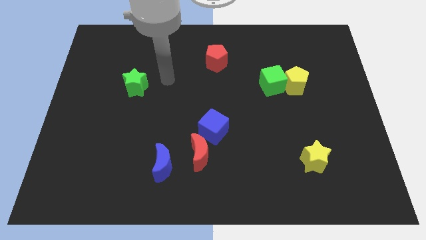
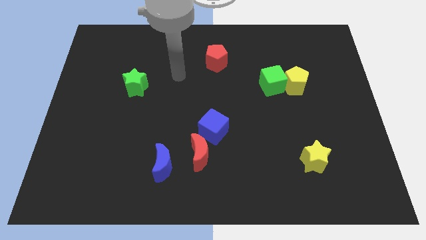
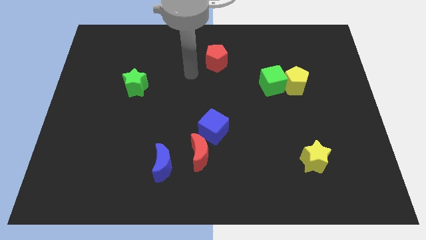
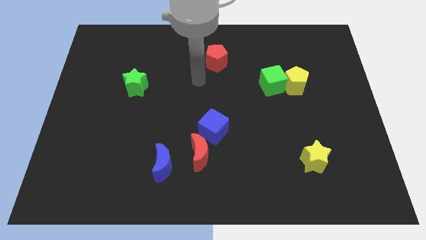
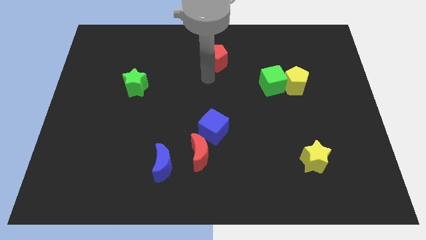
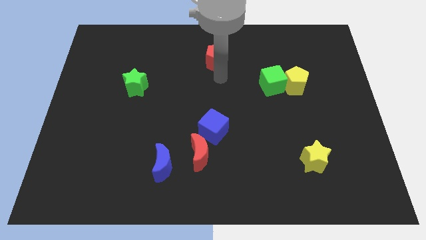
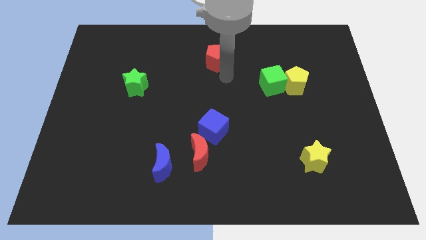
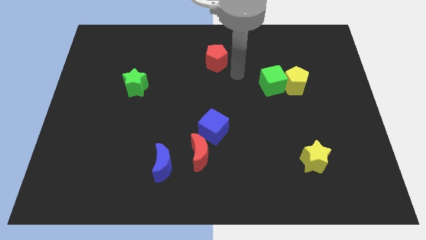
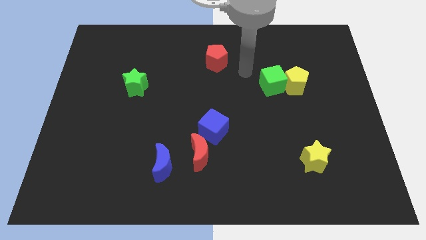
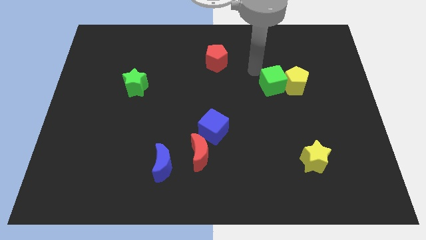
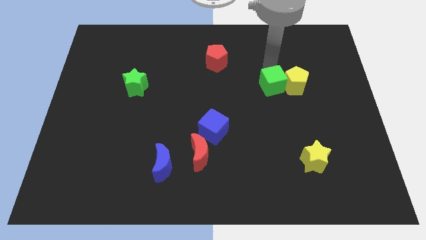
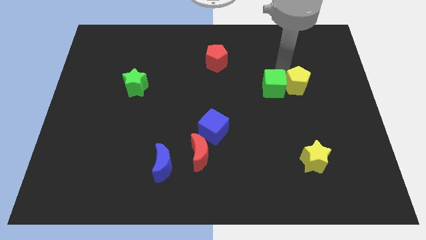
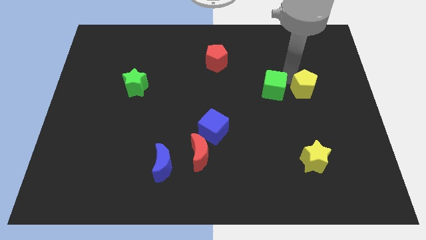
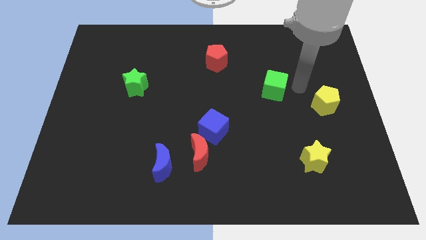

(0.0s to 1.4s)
pull the green cube apart from the yellow pentagon

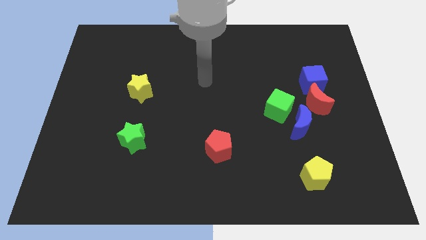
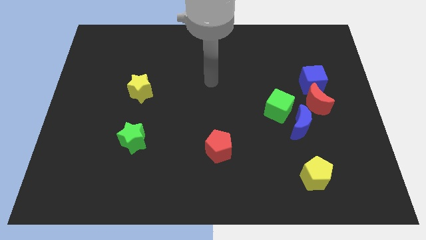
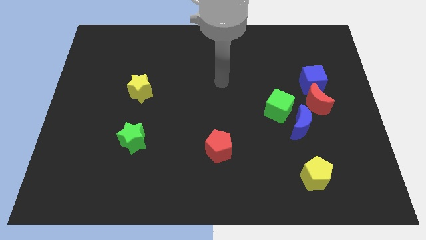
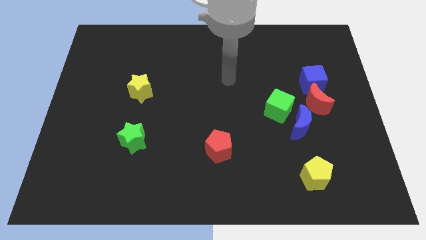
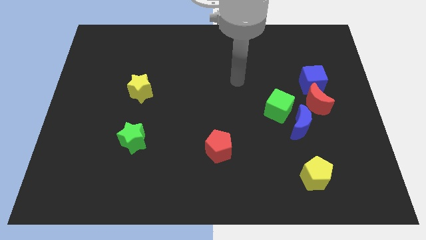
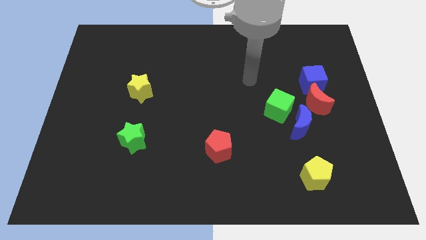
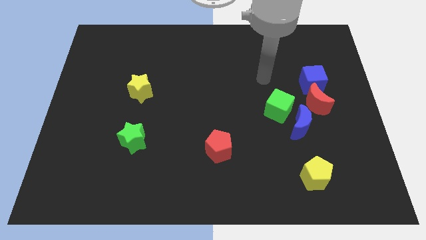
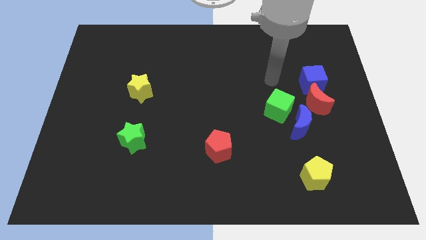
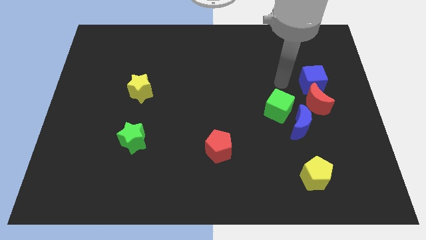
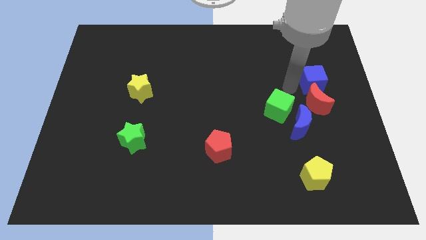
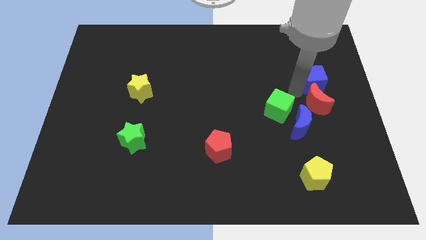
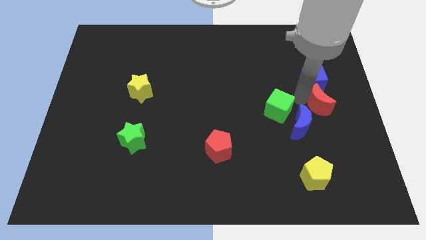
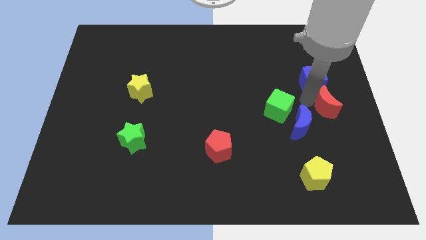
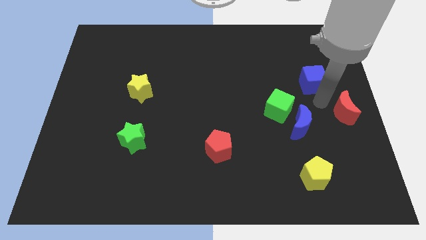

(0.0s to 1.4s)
pull the blue cube apart from the red moon

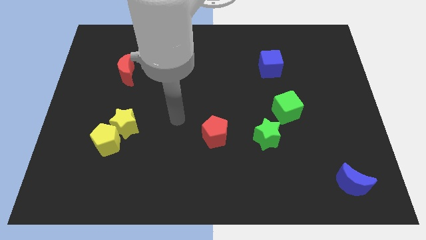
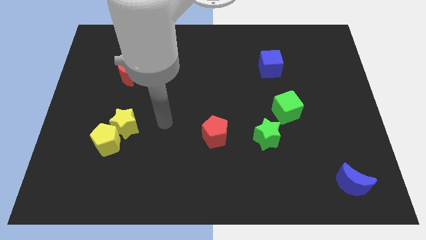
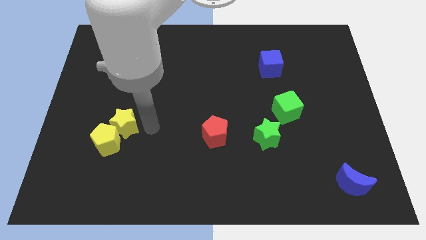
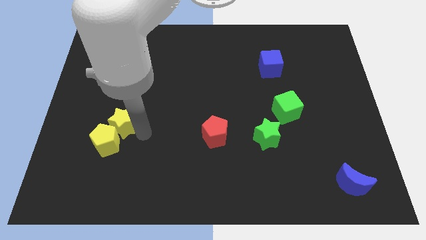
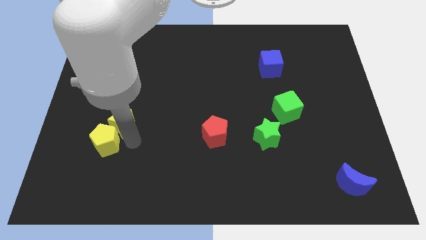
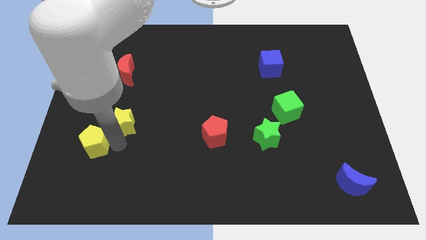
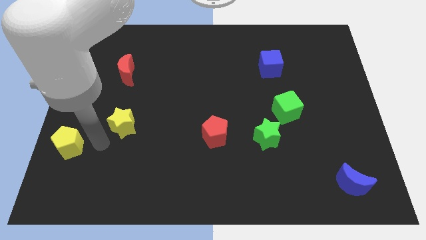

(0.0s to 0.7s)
move the yellow star away from the yellow pentagon

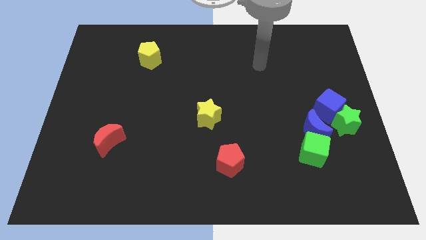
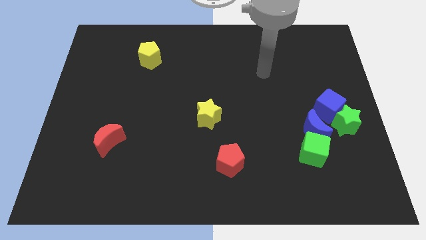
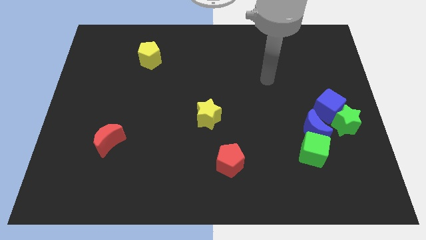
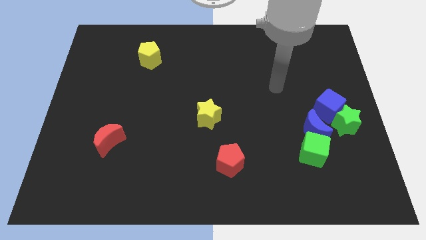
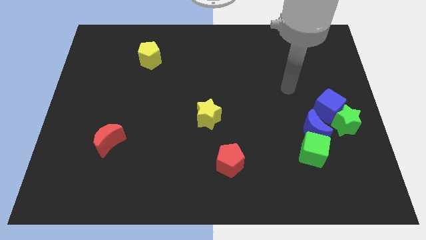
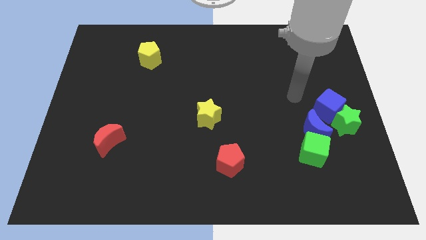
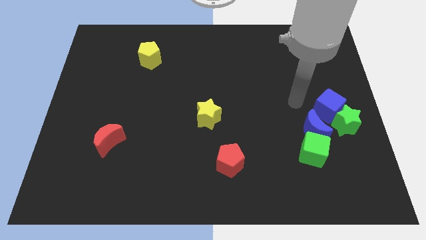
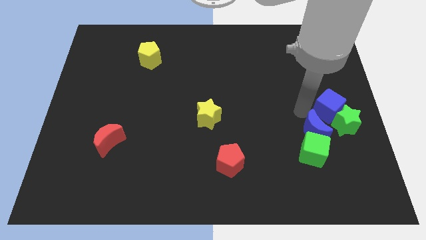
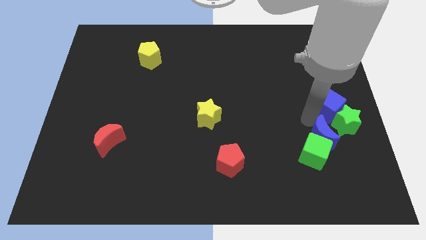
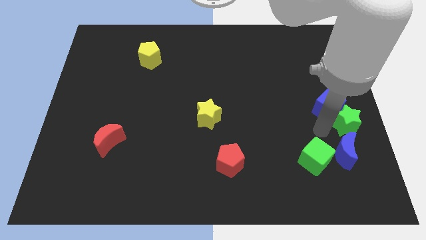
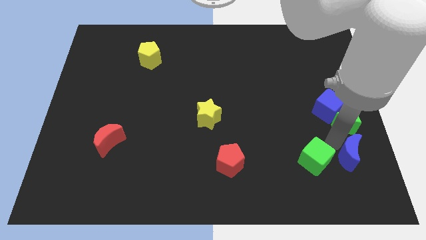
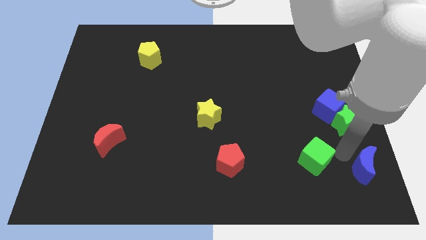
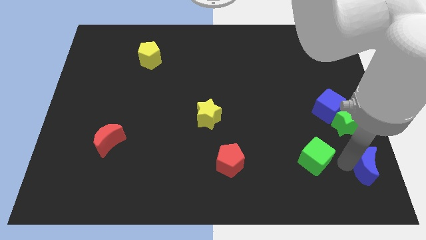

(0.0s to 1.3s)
separate the green cube from the blue moon

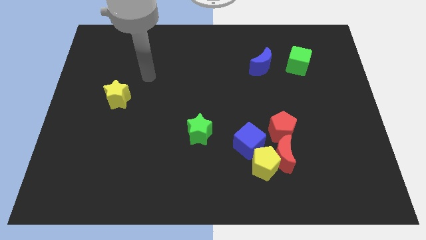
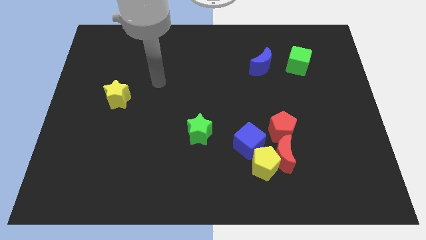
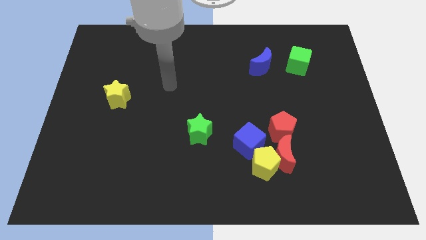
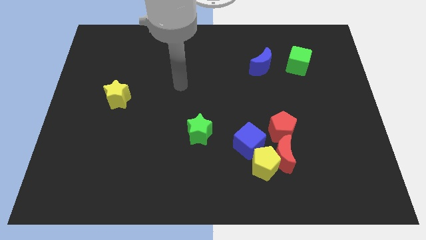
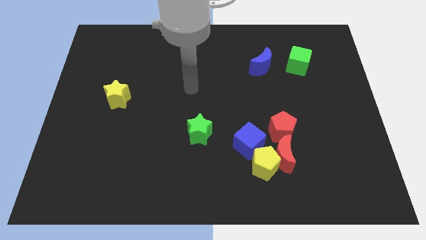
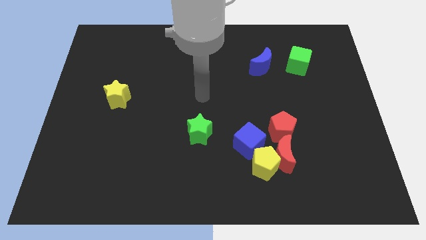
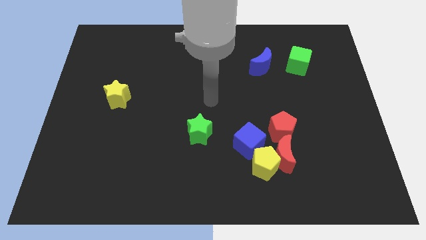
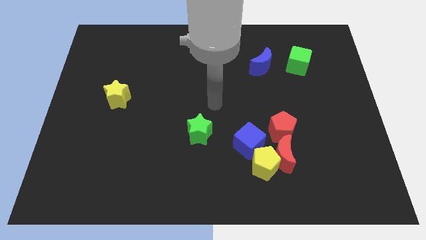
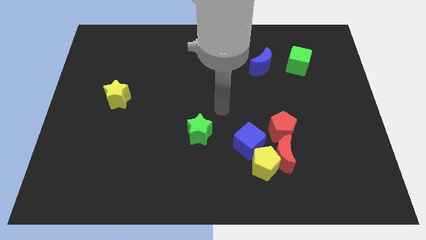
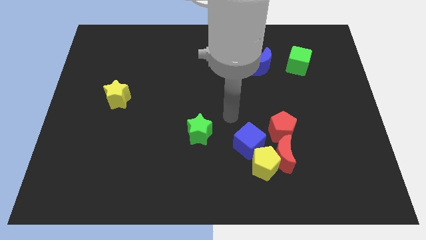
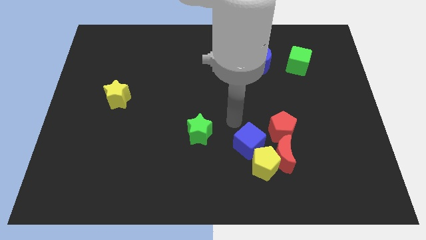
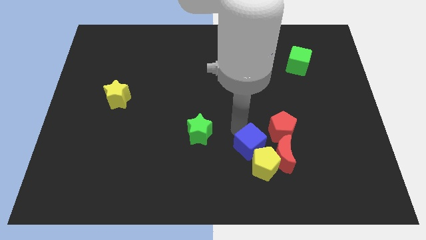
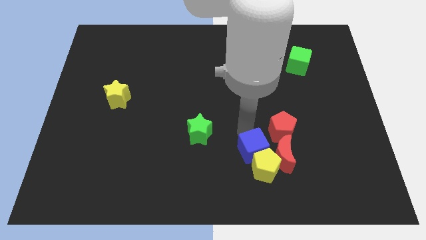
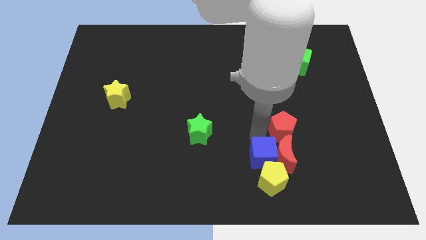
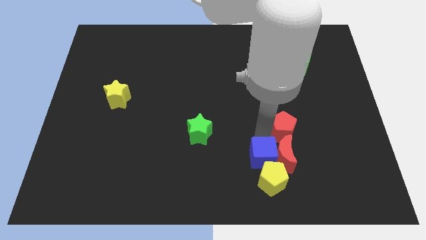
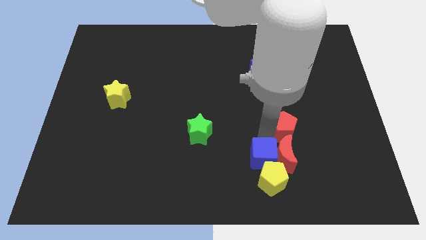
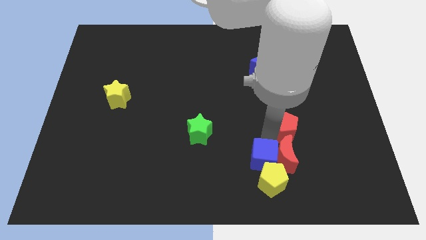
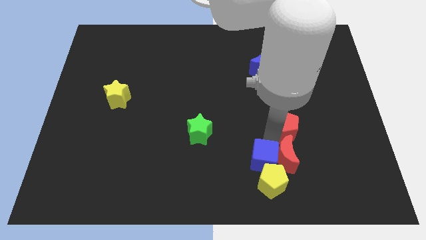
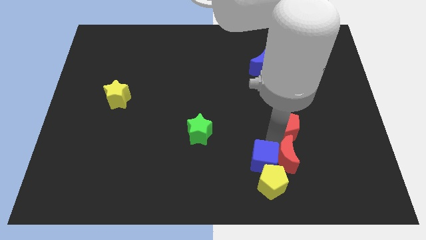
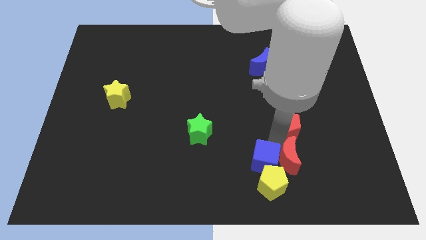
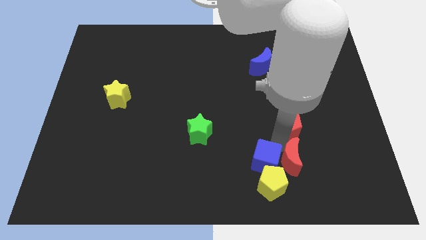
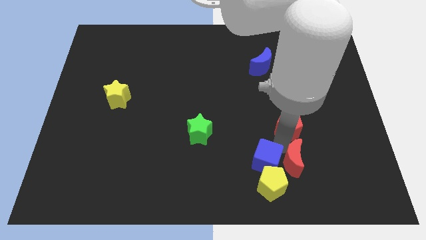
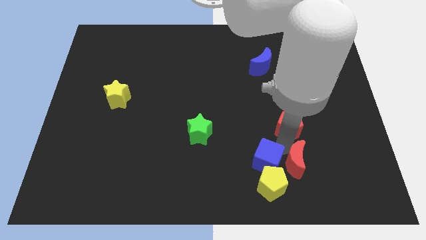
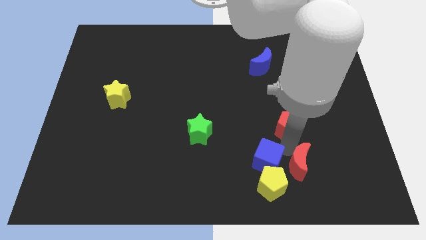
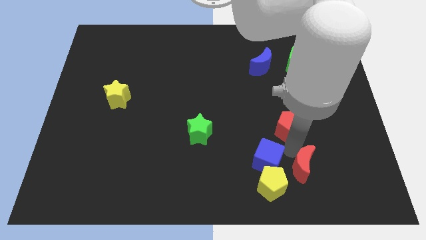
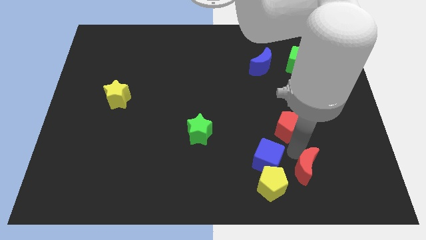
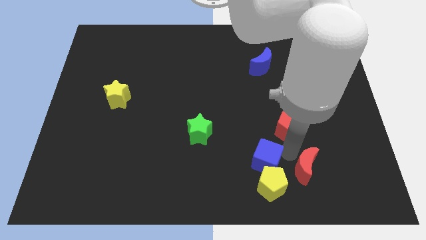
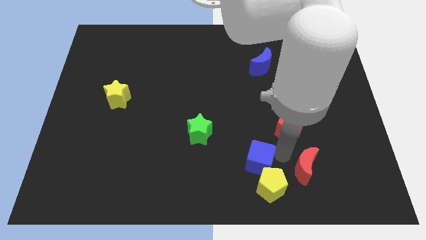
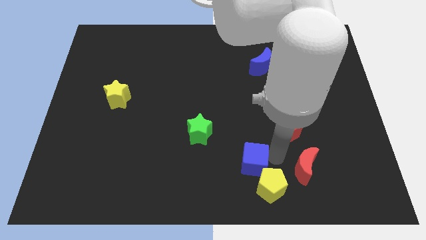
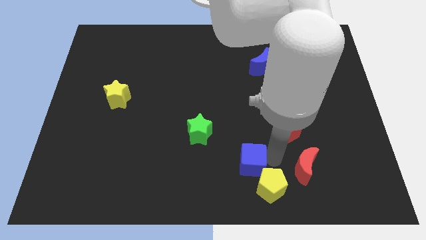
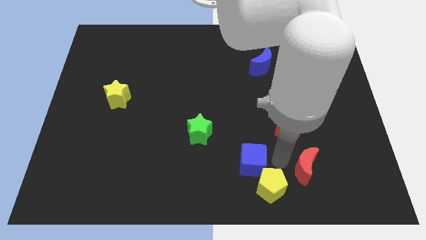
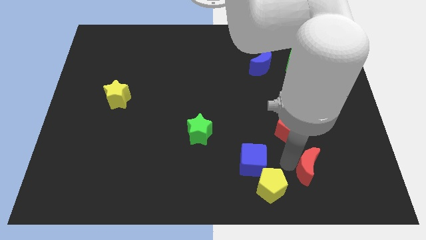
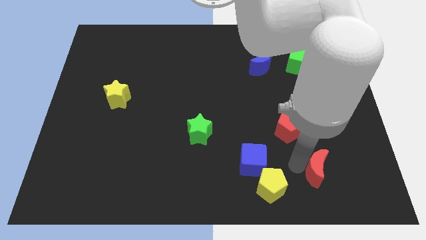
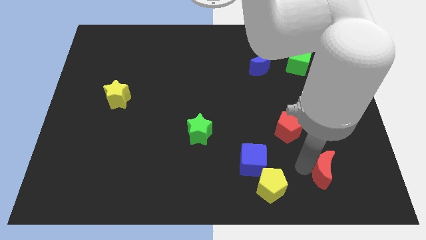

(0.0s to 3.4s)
separate the red moon from the yellow pentagon, red pentagon, and blue cube

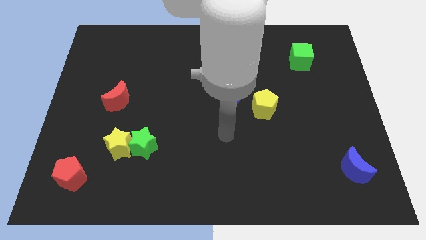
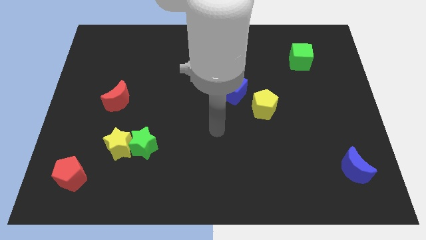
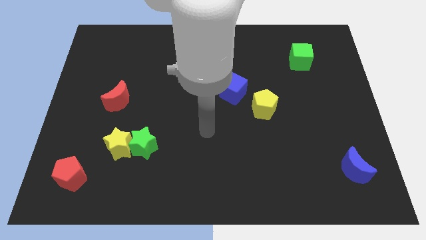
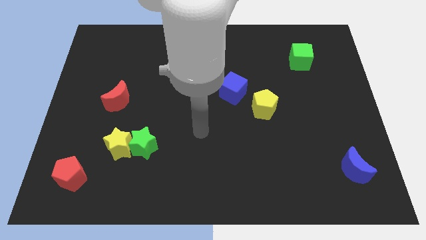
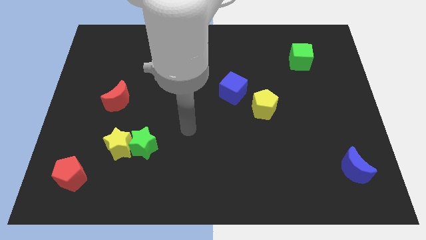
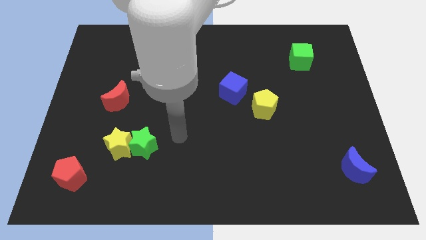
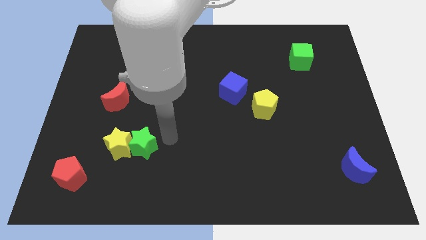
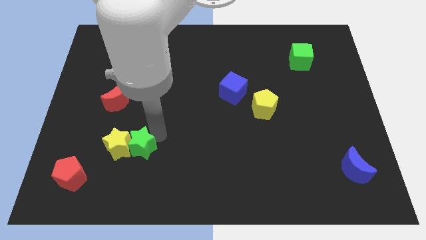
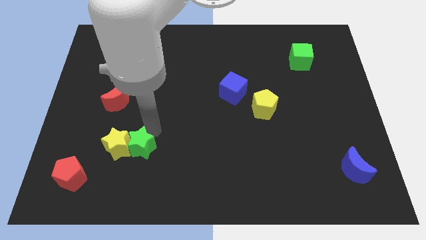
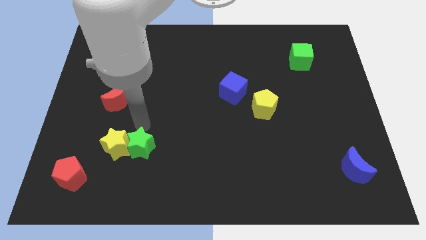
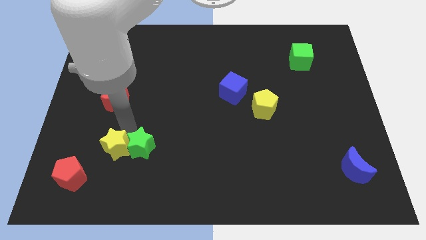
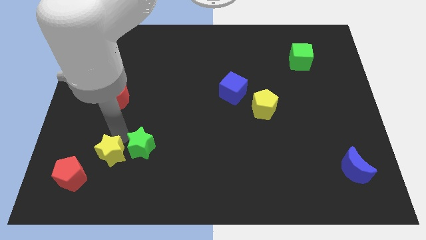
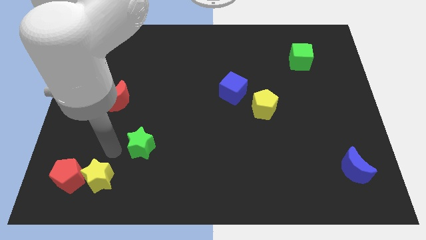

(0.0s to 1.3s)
separate the green star from the yellow star
